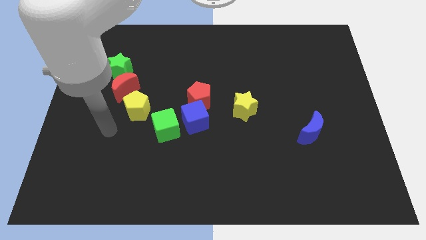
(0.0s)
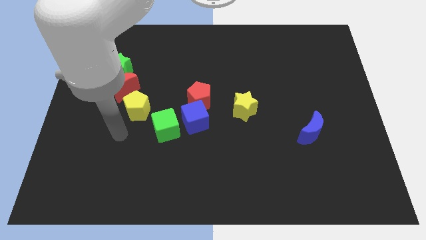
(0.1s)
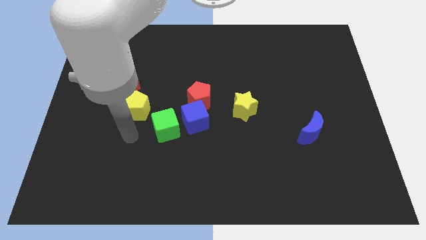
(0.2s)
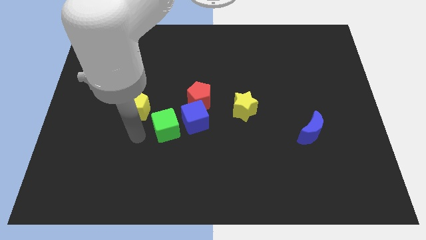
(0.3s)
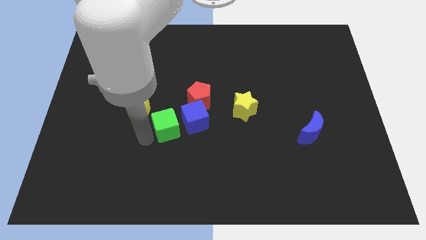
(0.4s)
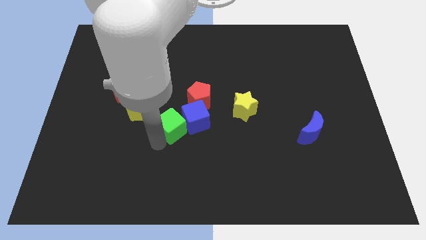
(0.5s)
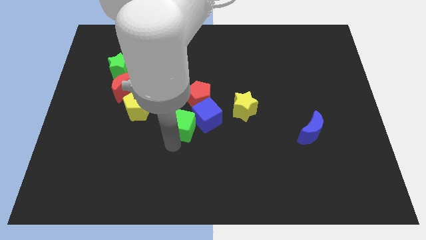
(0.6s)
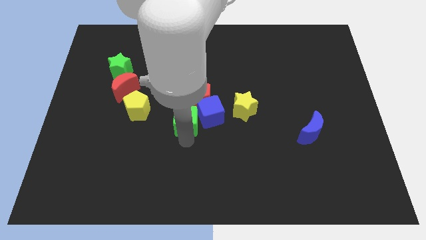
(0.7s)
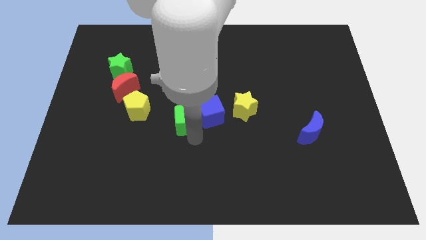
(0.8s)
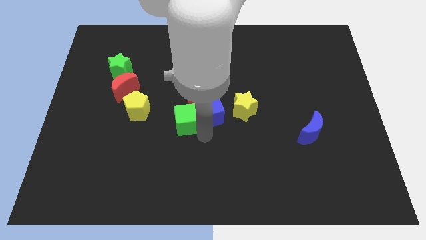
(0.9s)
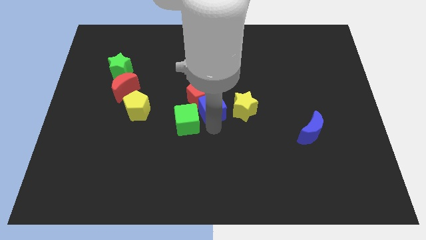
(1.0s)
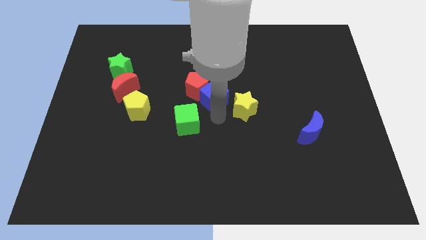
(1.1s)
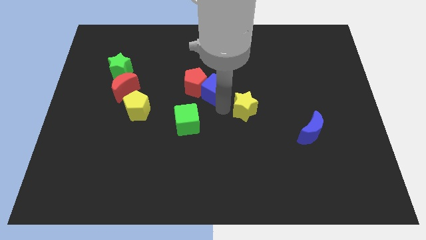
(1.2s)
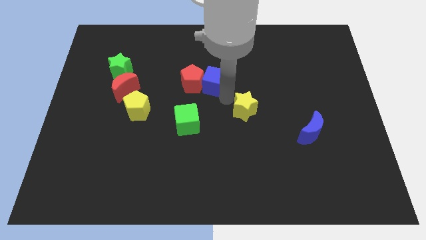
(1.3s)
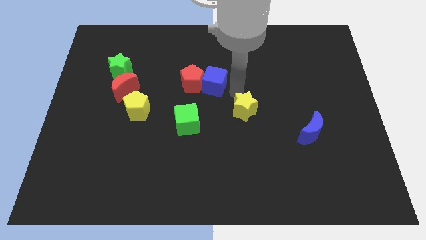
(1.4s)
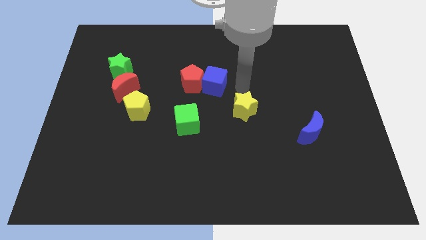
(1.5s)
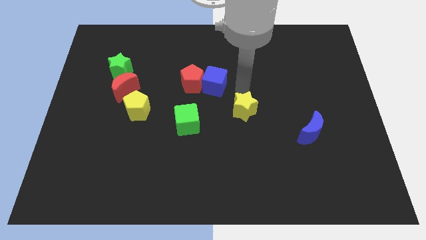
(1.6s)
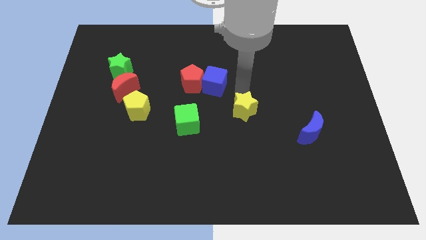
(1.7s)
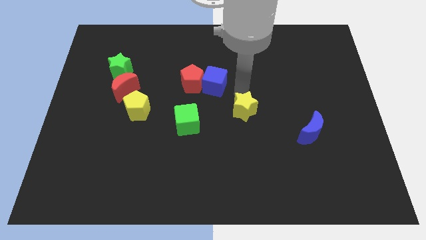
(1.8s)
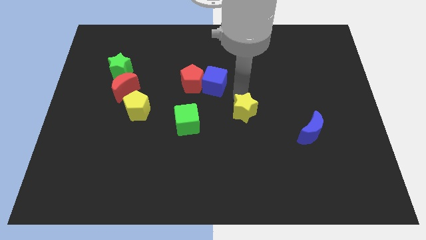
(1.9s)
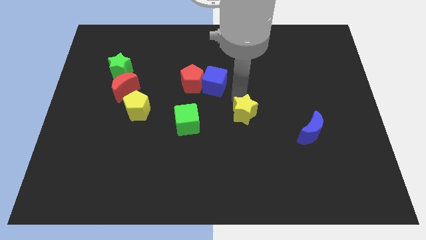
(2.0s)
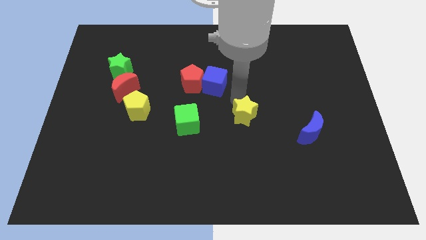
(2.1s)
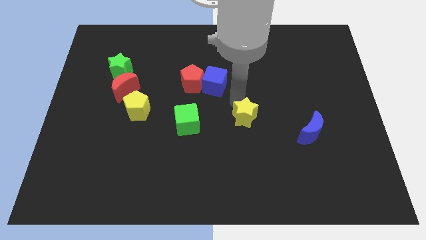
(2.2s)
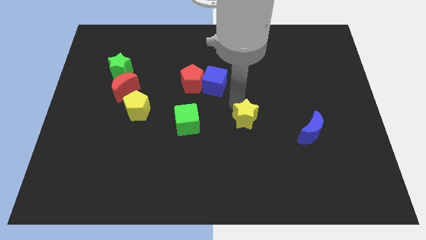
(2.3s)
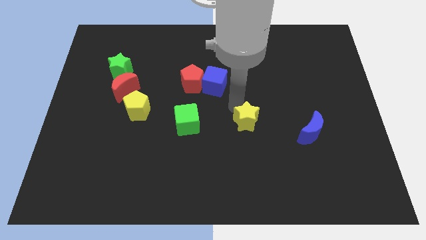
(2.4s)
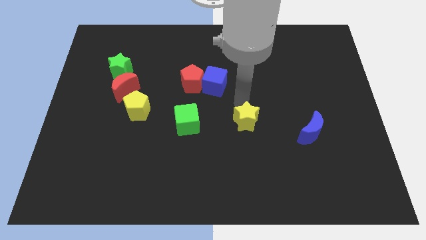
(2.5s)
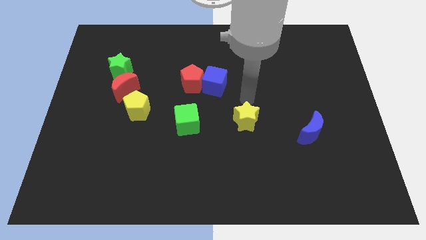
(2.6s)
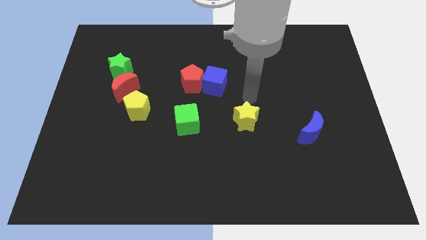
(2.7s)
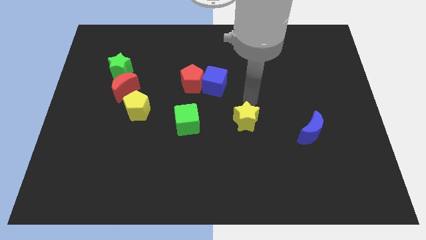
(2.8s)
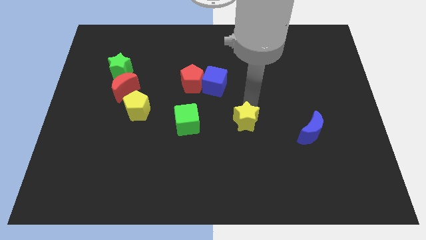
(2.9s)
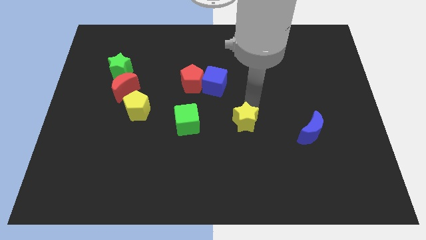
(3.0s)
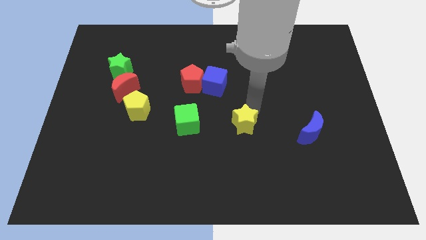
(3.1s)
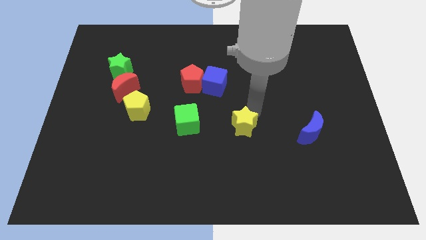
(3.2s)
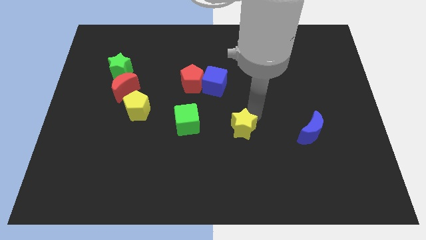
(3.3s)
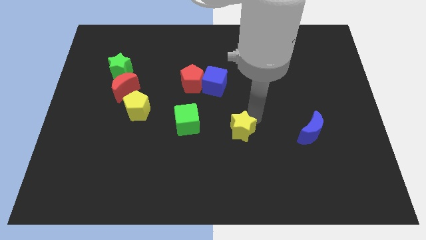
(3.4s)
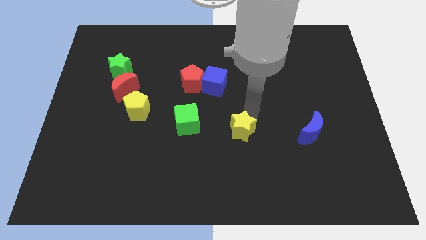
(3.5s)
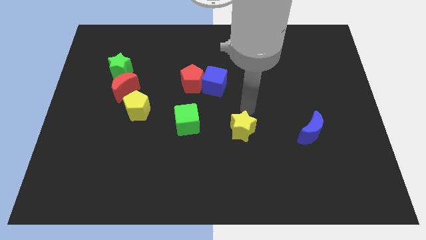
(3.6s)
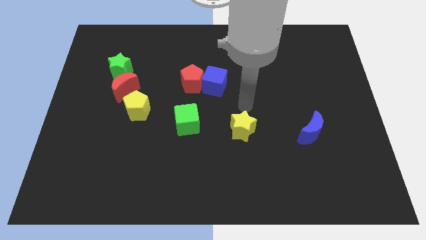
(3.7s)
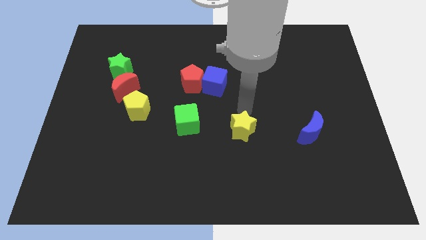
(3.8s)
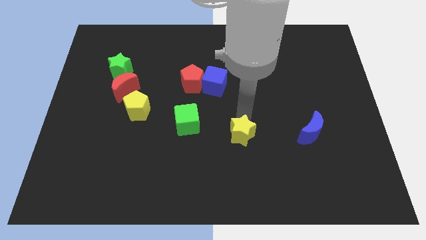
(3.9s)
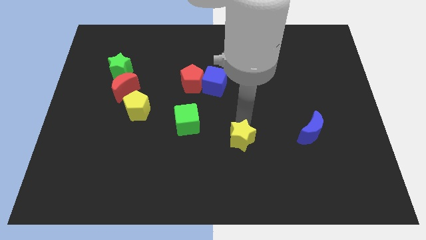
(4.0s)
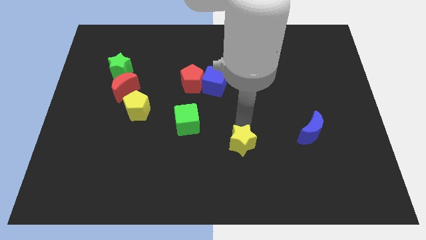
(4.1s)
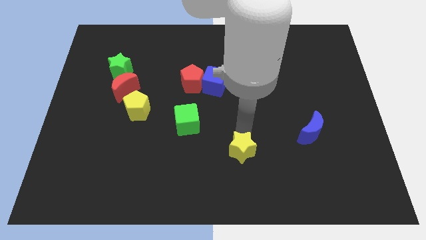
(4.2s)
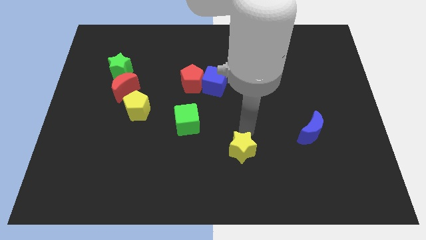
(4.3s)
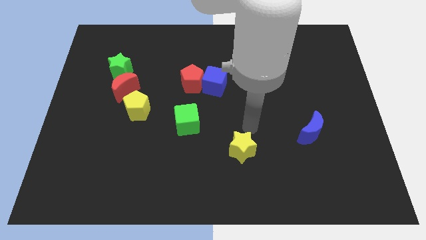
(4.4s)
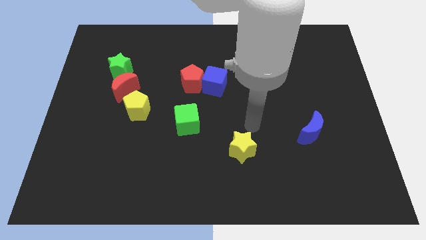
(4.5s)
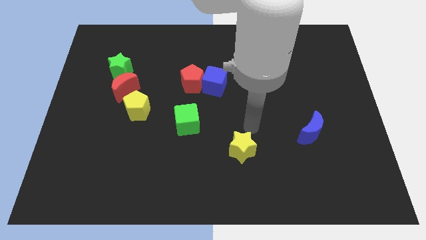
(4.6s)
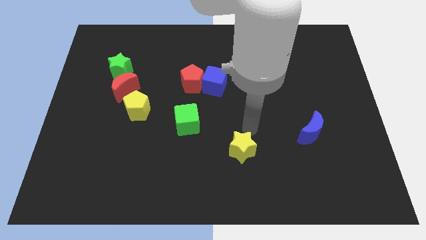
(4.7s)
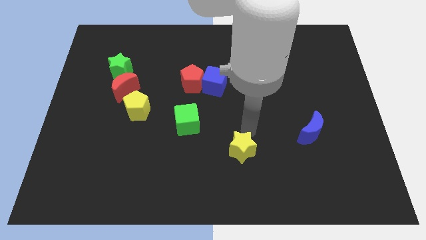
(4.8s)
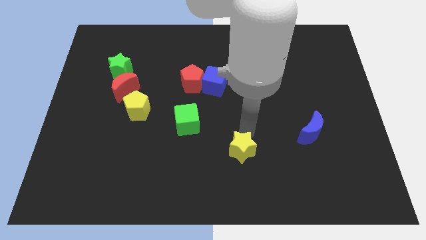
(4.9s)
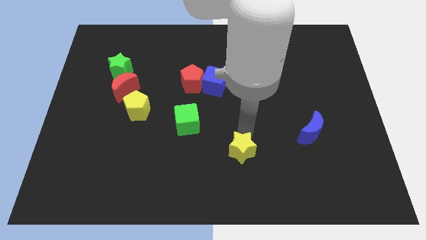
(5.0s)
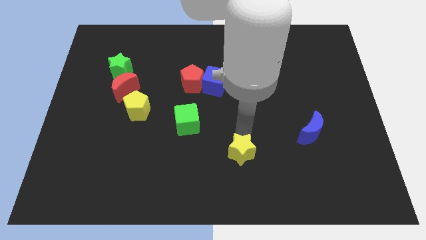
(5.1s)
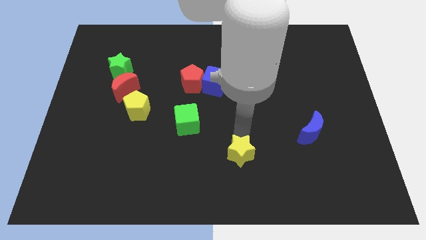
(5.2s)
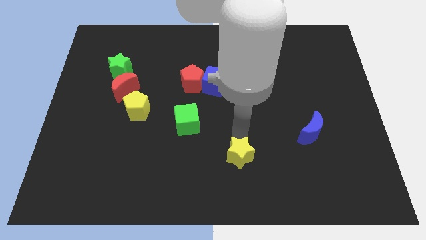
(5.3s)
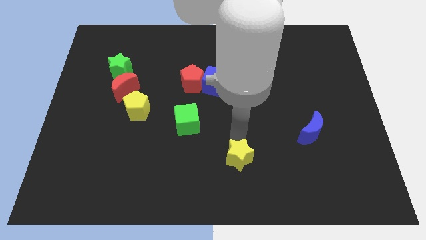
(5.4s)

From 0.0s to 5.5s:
slide the yellow star to the bottom side
